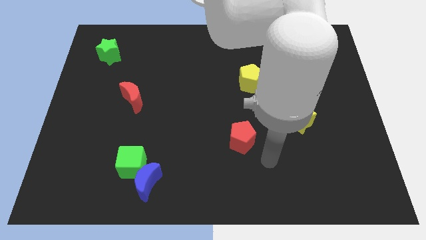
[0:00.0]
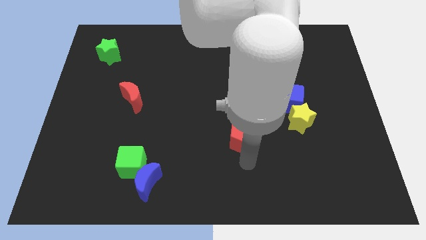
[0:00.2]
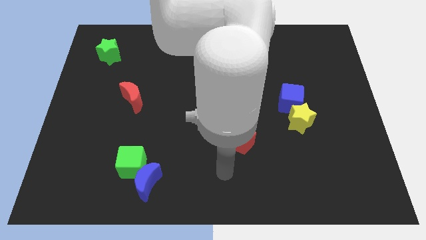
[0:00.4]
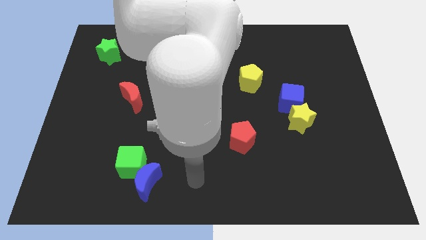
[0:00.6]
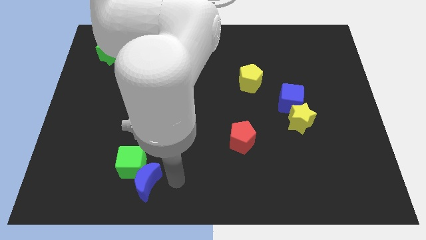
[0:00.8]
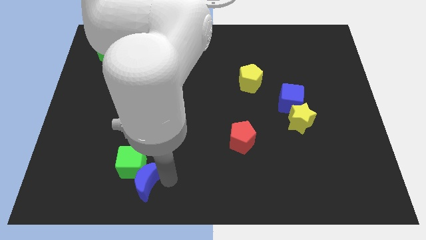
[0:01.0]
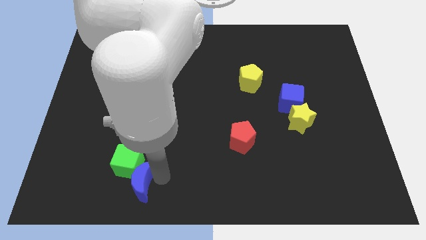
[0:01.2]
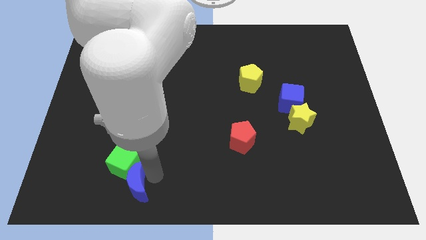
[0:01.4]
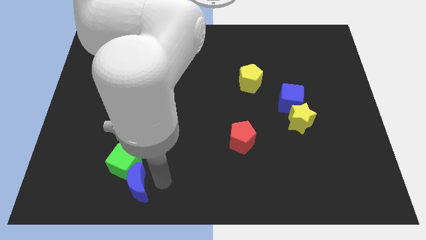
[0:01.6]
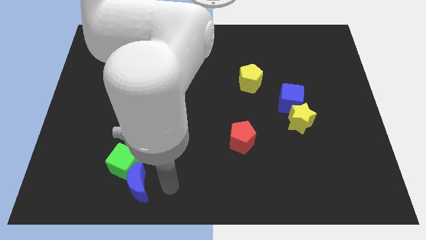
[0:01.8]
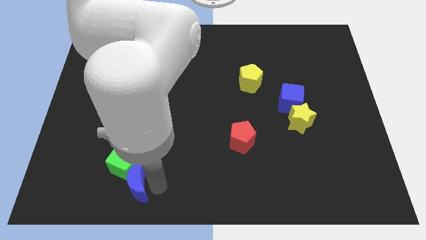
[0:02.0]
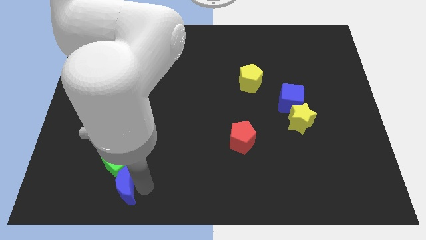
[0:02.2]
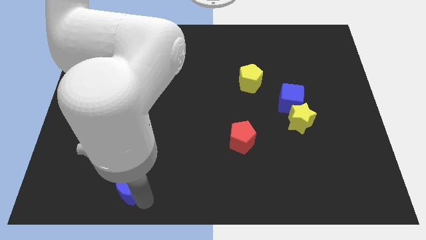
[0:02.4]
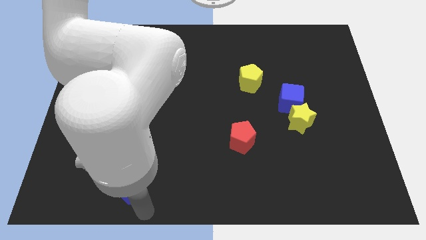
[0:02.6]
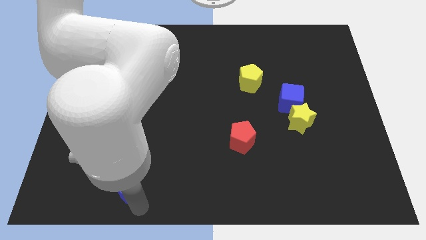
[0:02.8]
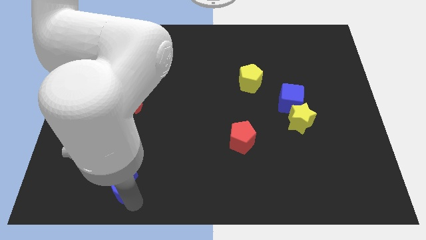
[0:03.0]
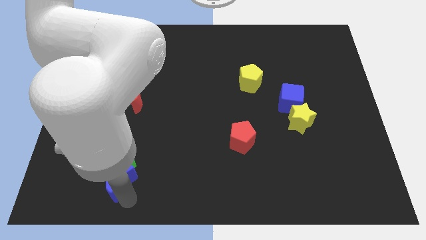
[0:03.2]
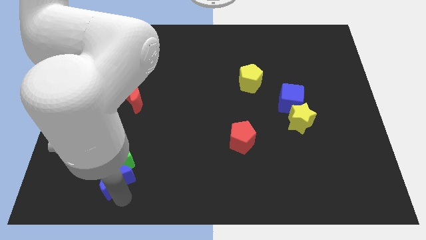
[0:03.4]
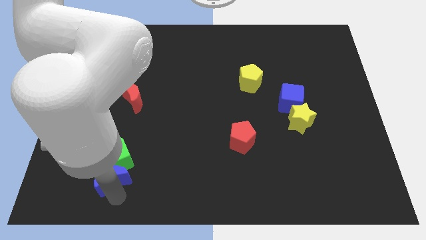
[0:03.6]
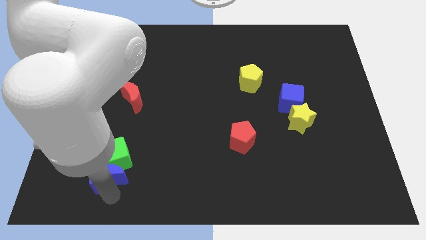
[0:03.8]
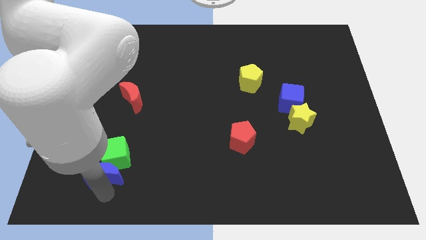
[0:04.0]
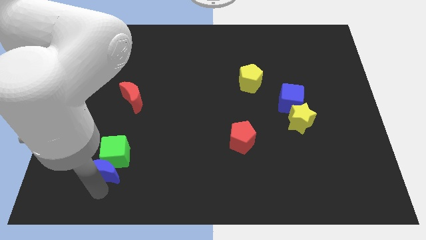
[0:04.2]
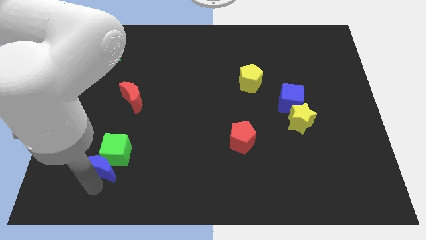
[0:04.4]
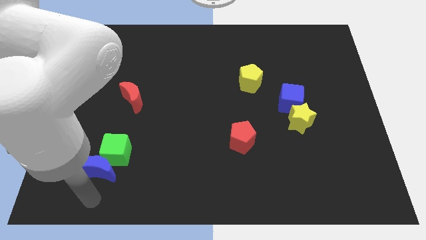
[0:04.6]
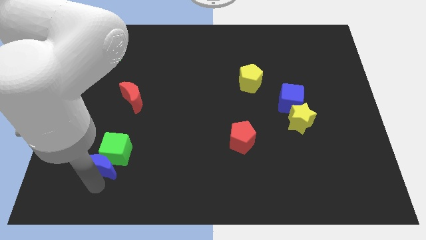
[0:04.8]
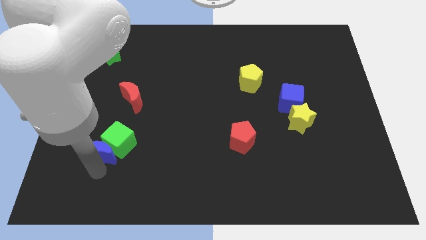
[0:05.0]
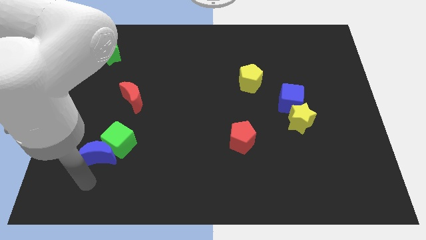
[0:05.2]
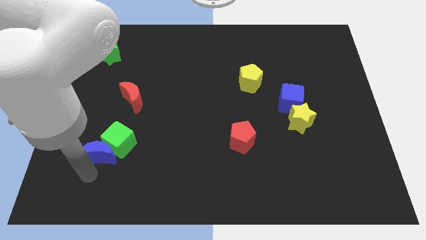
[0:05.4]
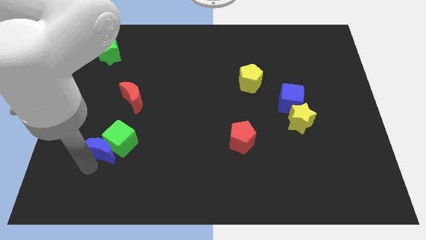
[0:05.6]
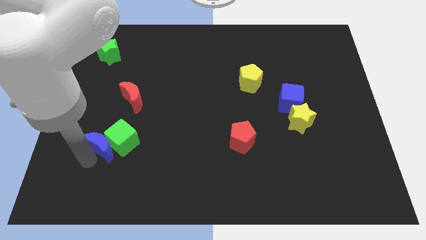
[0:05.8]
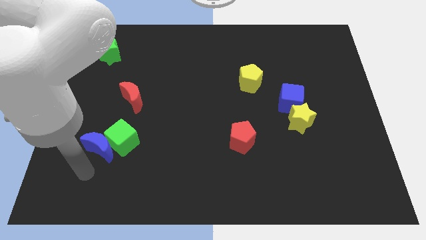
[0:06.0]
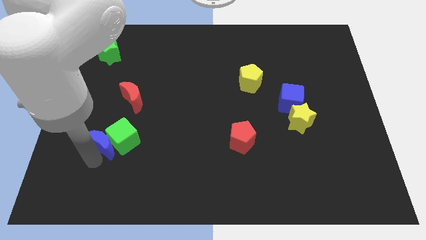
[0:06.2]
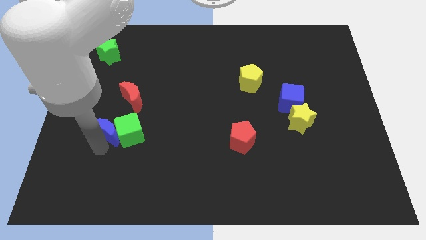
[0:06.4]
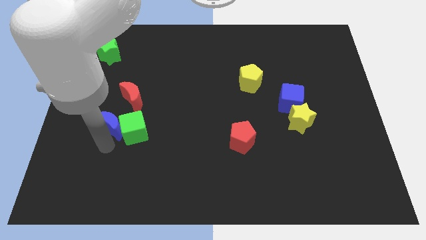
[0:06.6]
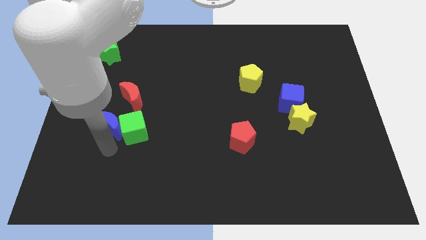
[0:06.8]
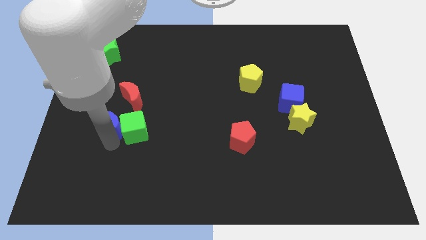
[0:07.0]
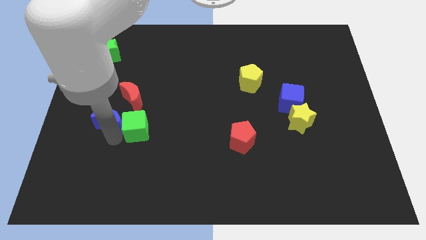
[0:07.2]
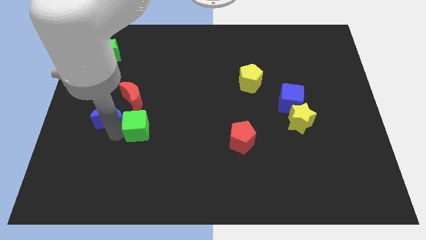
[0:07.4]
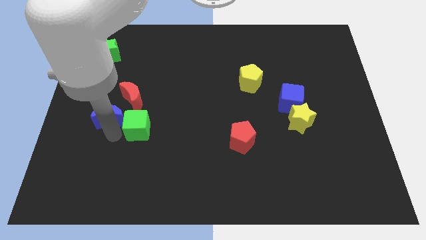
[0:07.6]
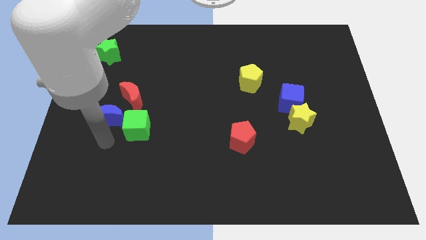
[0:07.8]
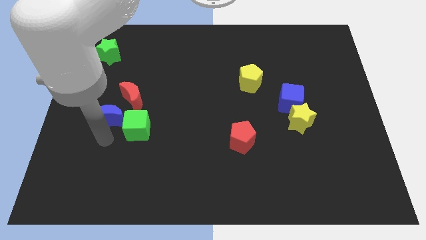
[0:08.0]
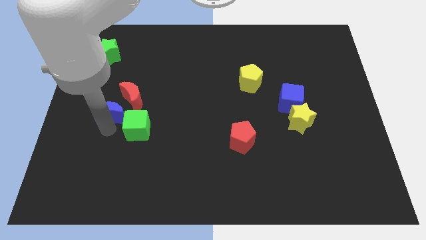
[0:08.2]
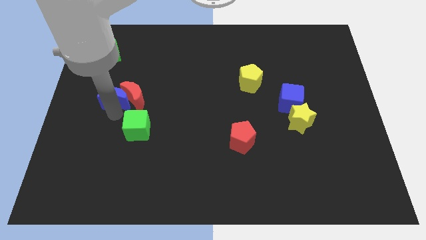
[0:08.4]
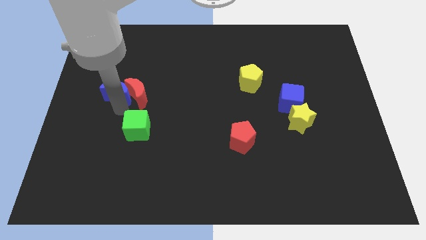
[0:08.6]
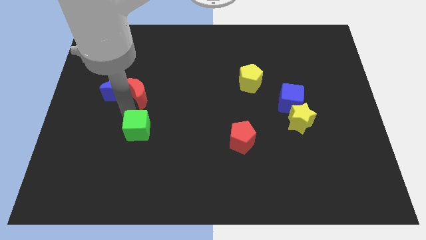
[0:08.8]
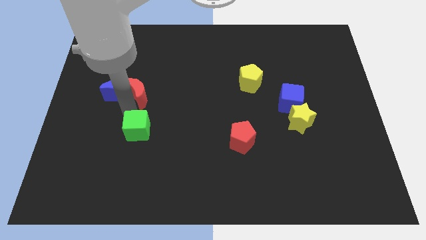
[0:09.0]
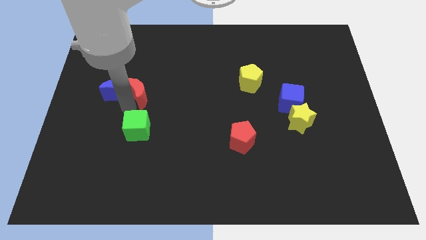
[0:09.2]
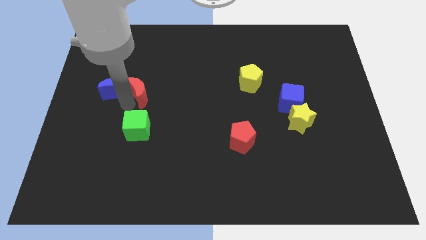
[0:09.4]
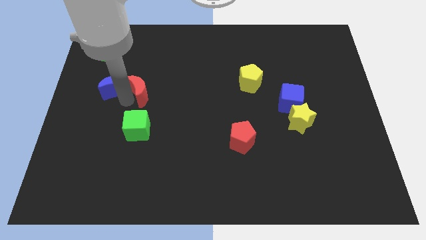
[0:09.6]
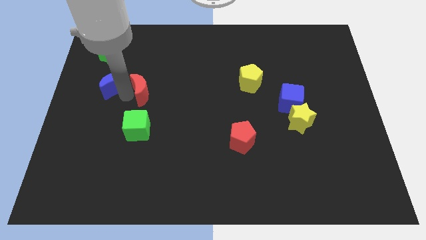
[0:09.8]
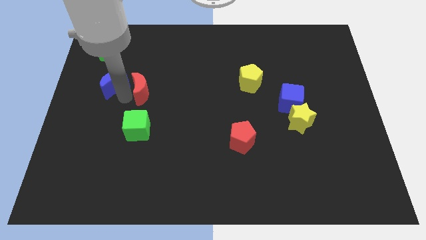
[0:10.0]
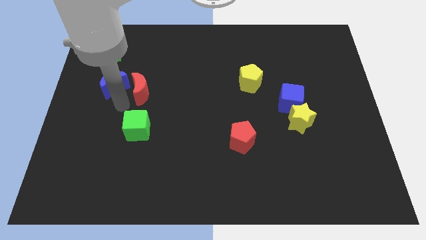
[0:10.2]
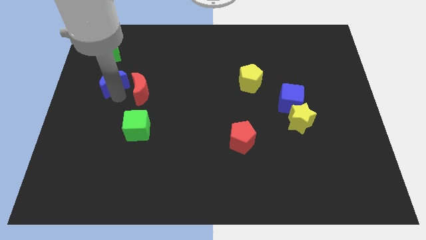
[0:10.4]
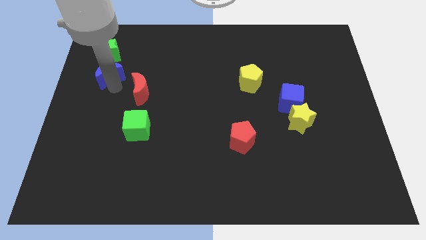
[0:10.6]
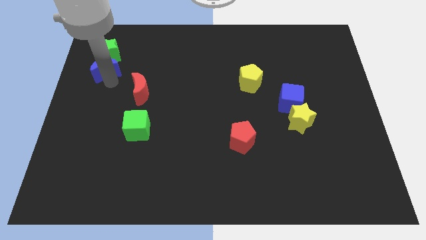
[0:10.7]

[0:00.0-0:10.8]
slide the blue moon next to the green star
